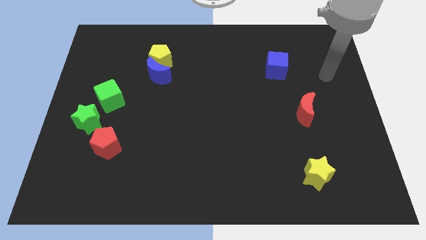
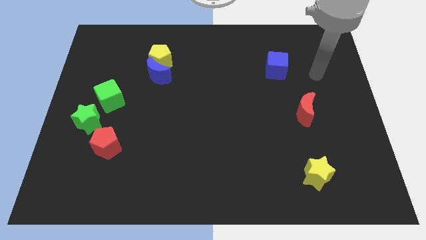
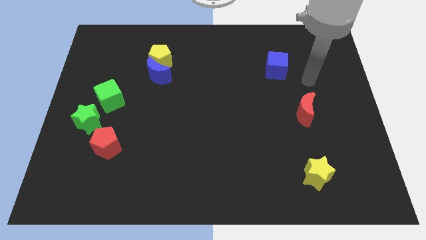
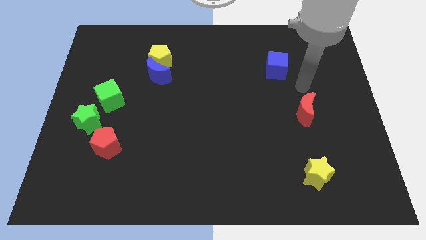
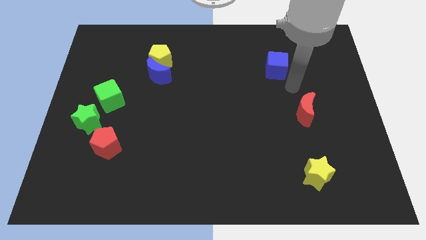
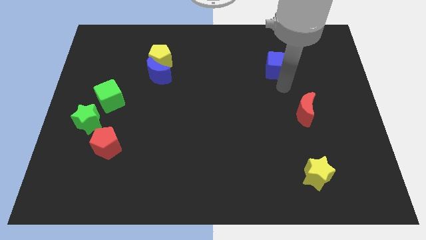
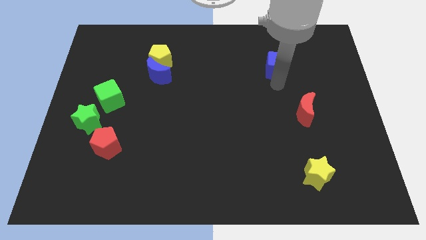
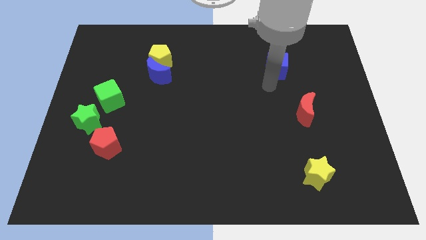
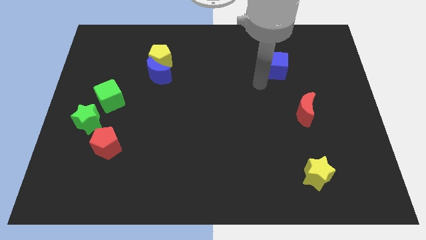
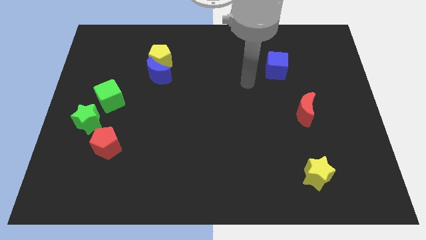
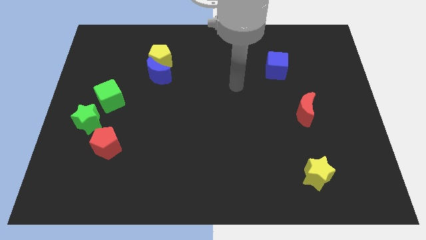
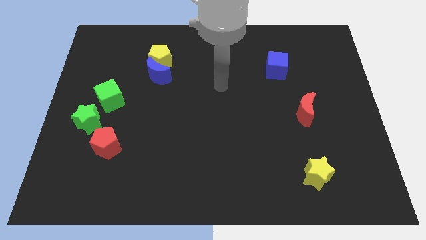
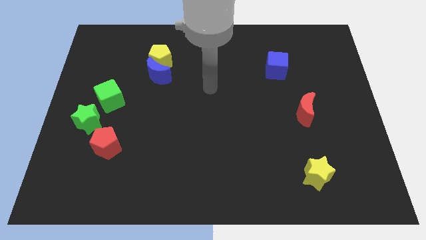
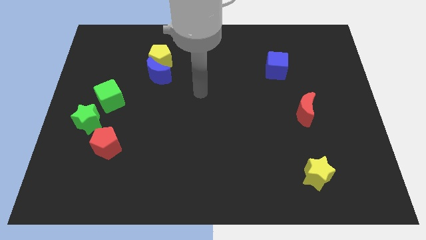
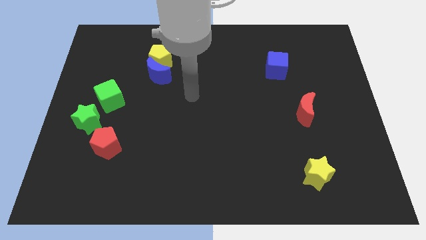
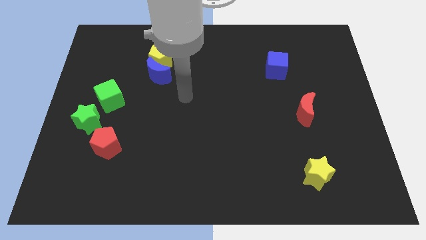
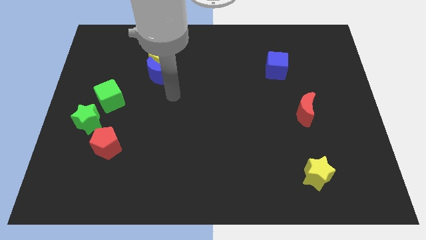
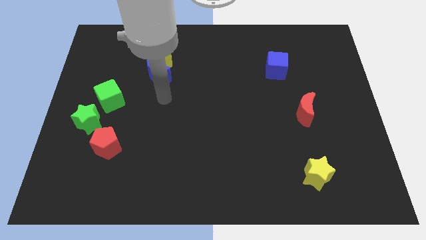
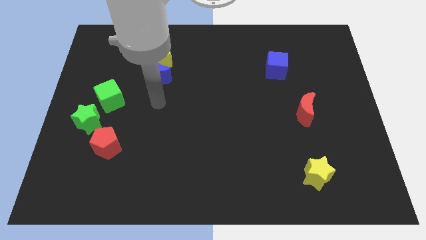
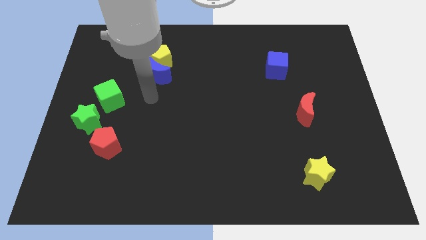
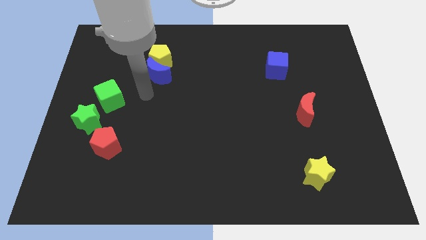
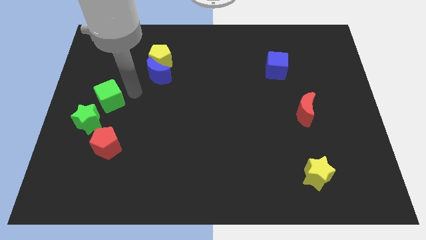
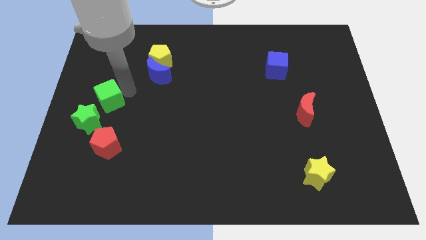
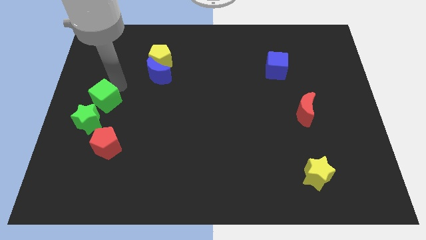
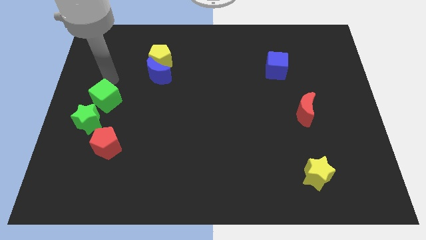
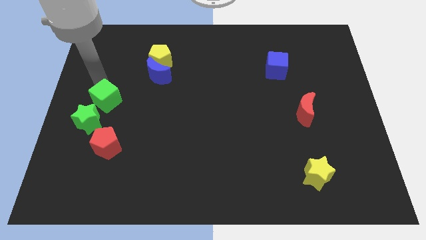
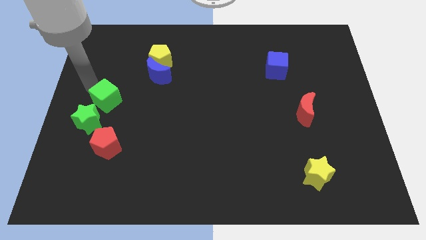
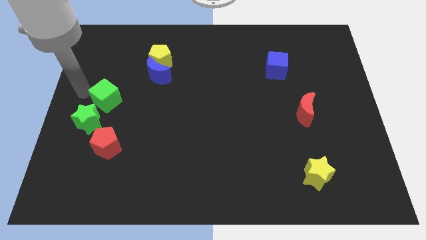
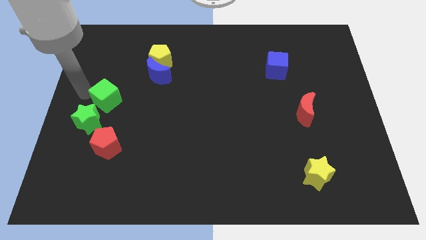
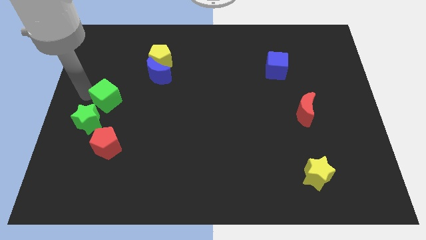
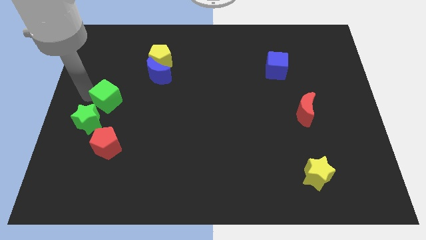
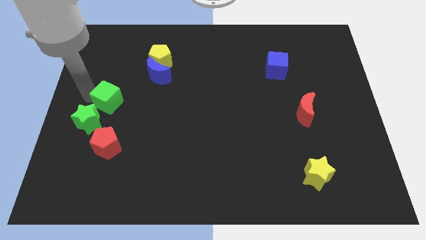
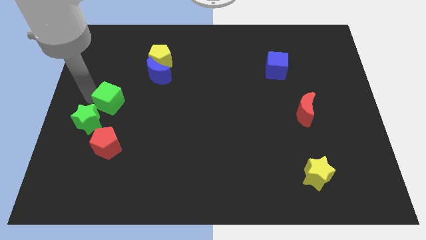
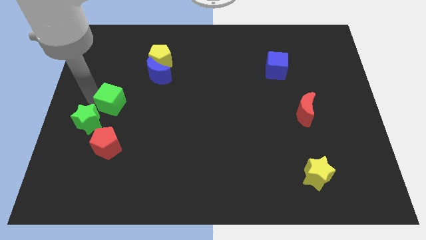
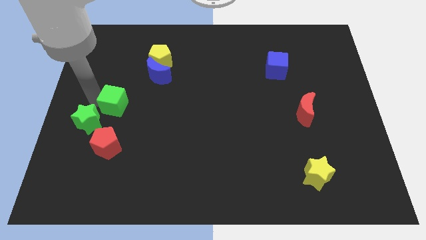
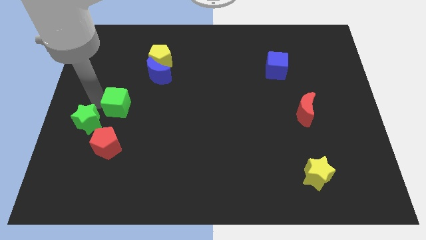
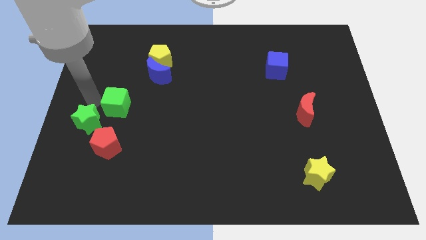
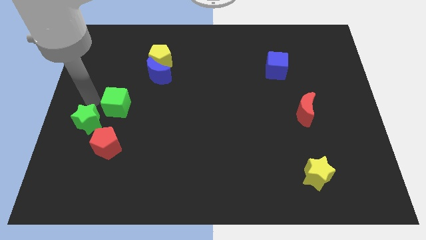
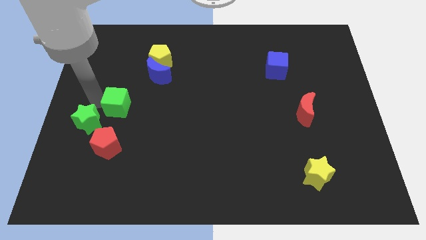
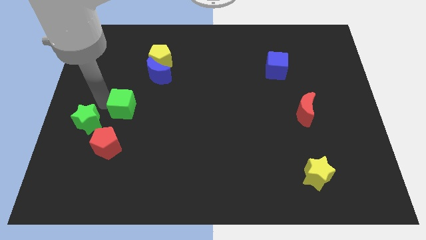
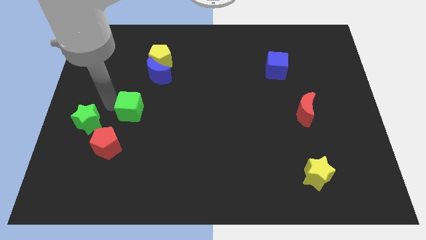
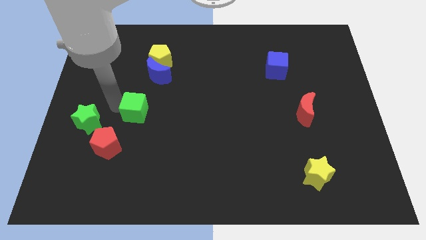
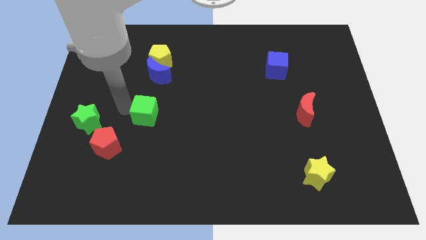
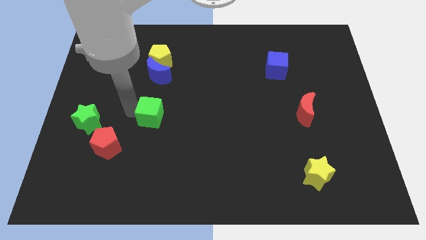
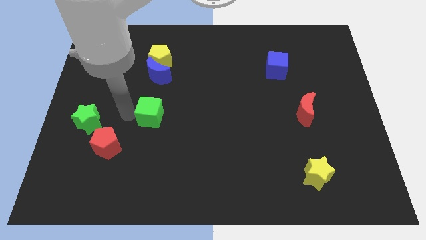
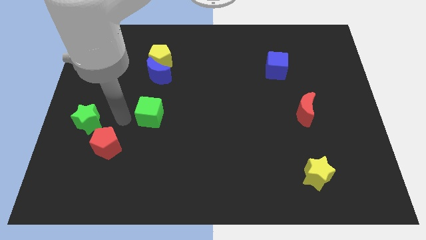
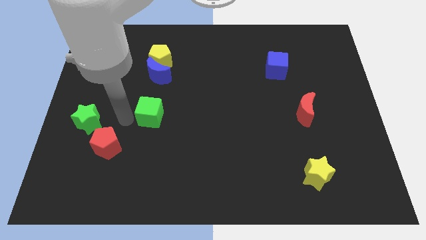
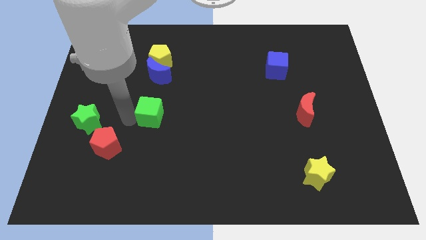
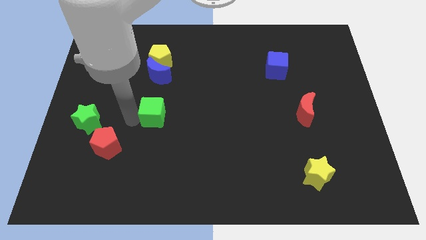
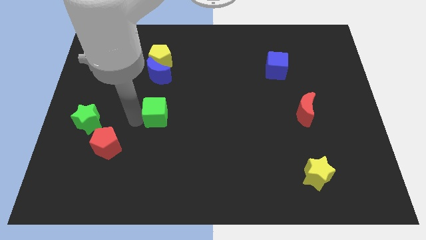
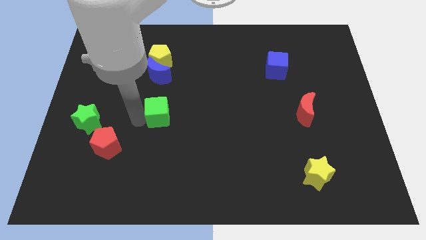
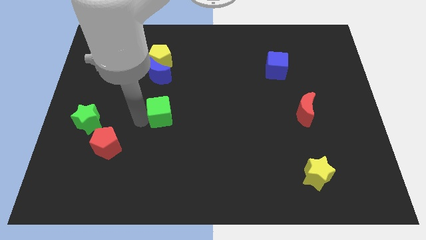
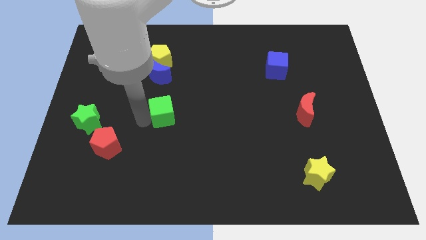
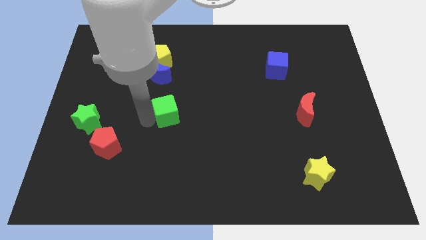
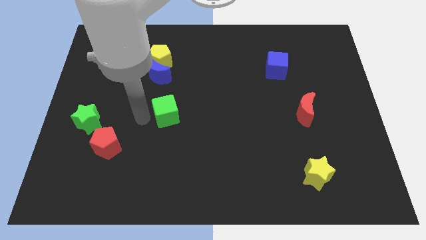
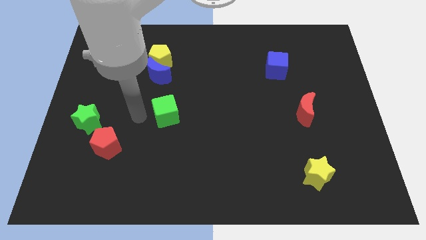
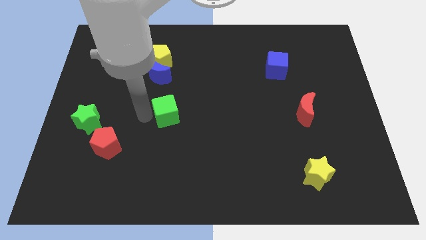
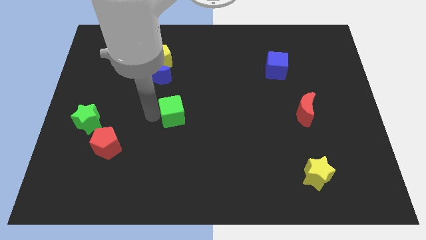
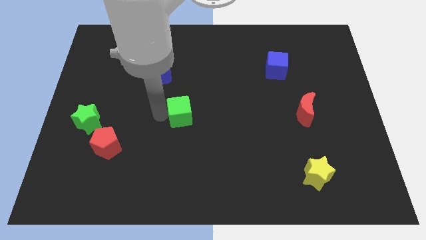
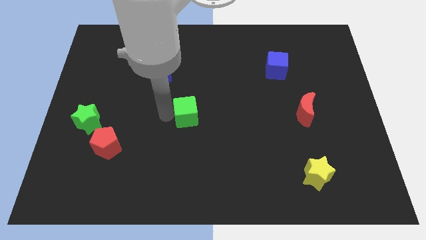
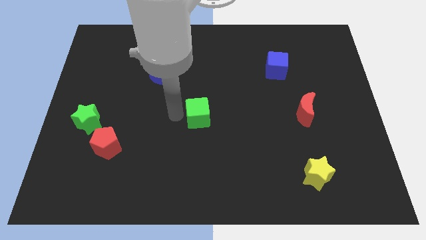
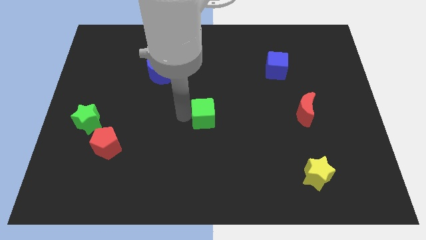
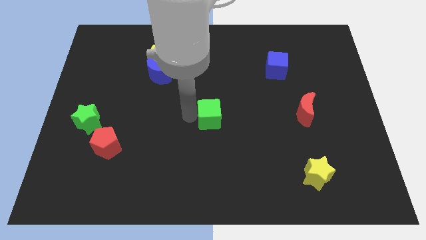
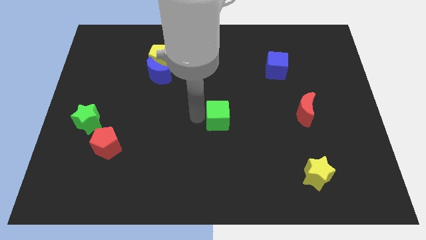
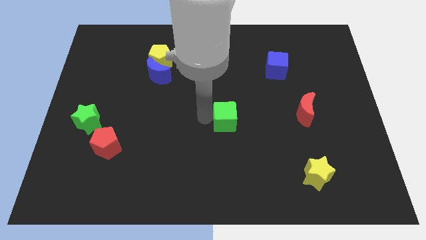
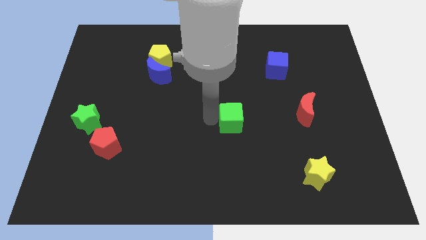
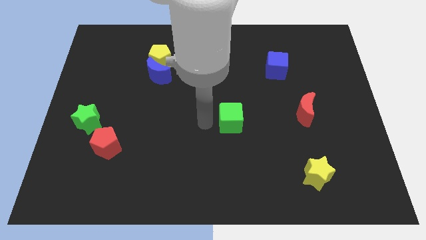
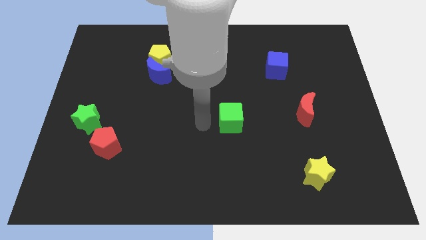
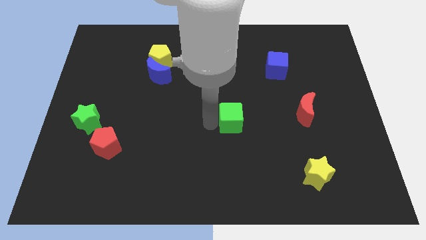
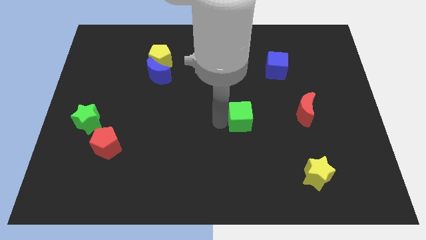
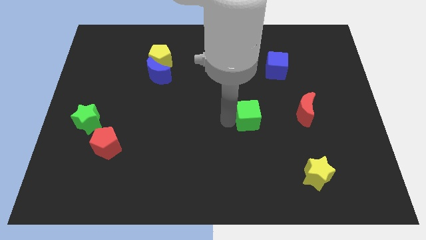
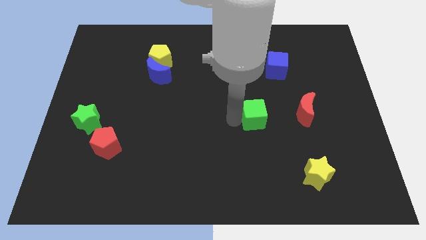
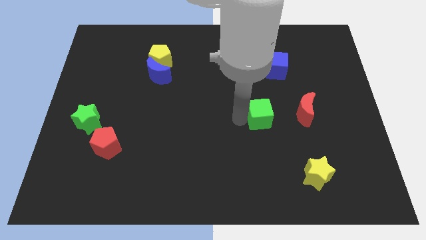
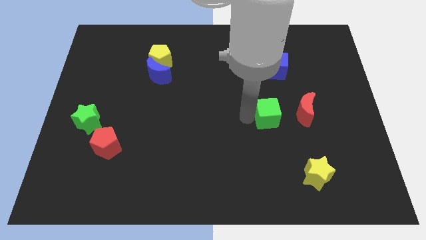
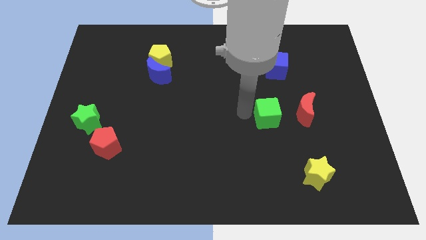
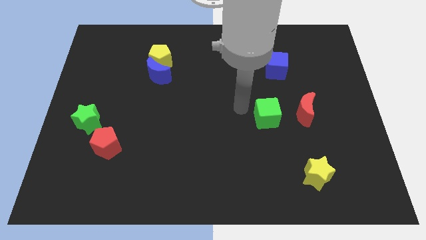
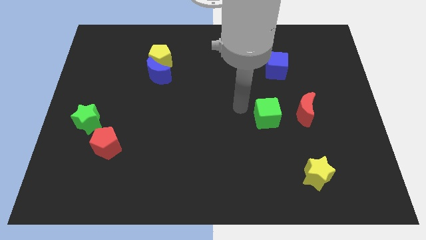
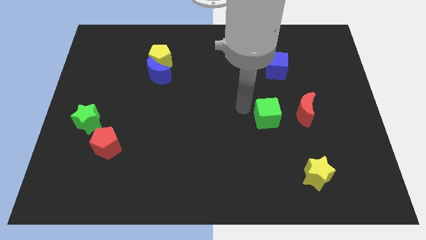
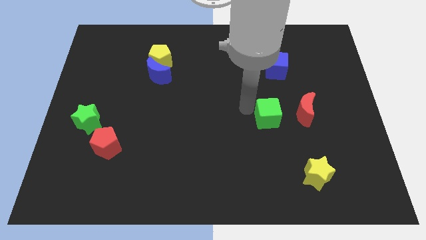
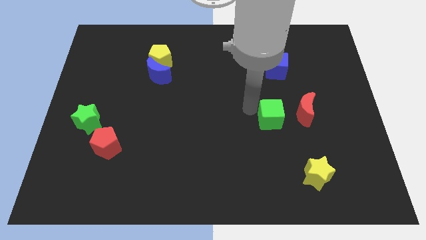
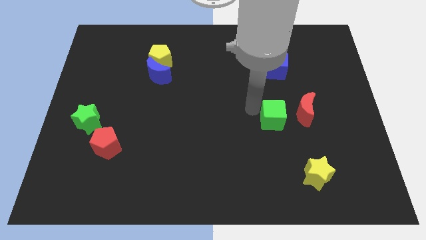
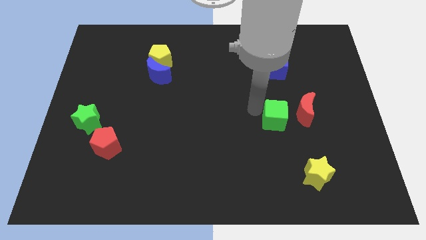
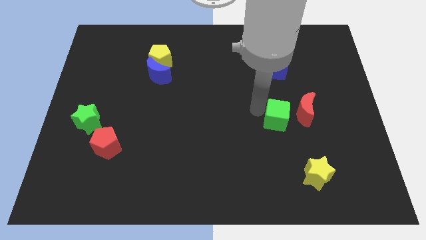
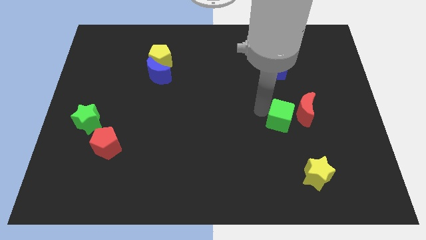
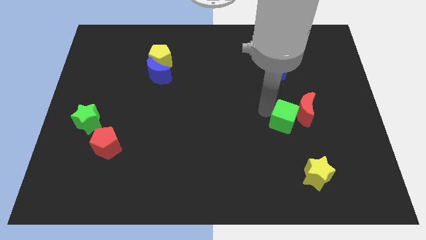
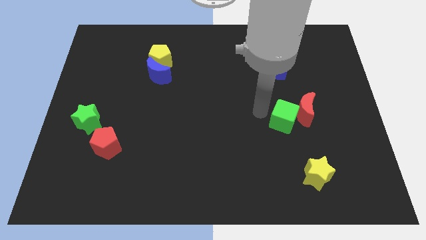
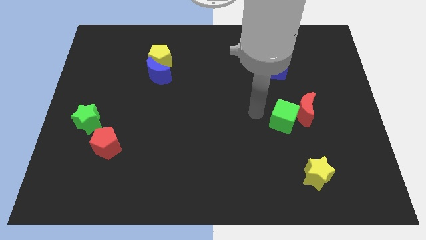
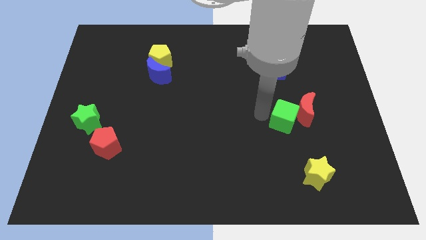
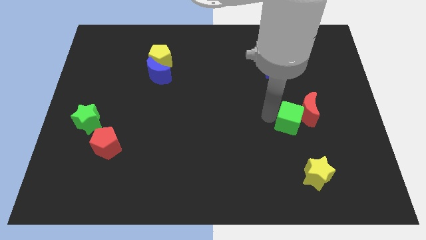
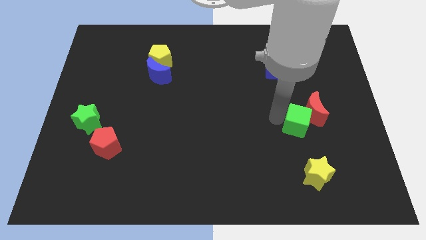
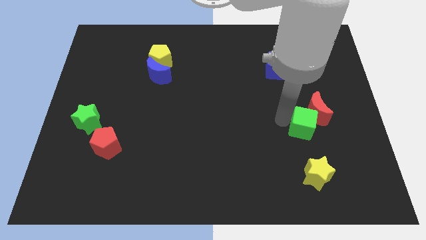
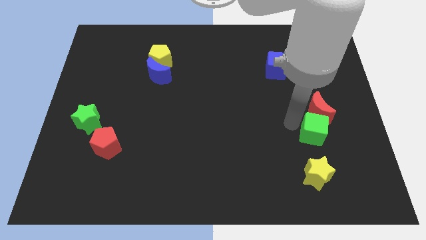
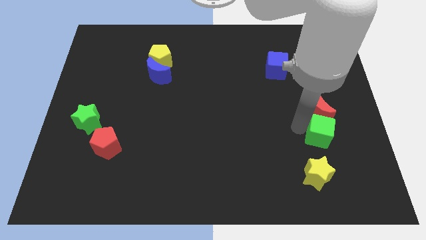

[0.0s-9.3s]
push the green cube to the bottom right of the red moon
